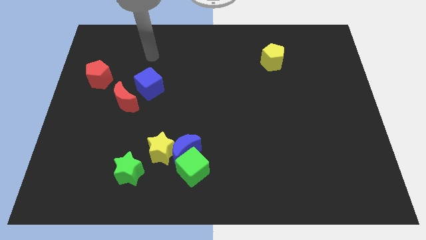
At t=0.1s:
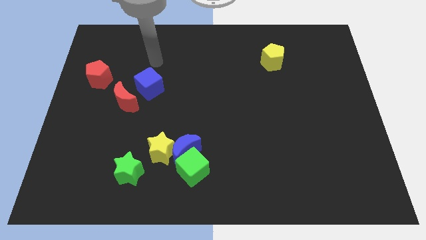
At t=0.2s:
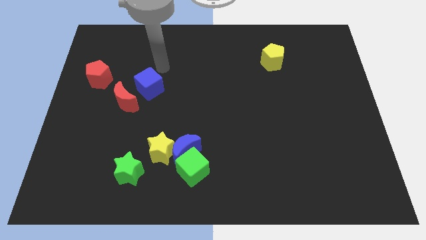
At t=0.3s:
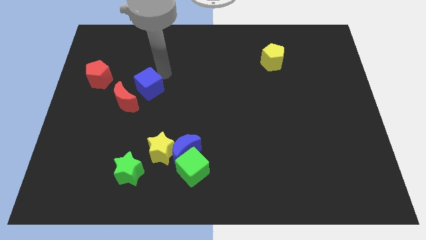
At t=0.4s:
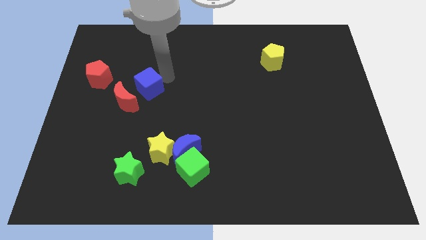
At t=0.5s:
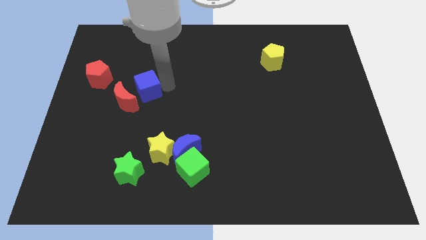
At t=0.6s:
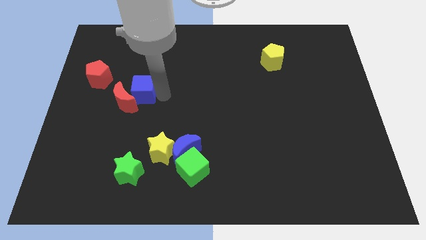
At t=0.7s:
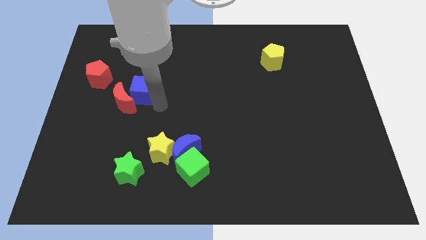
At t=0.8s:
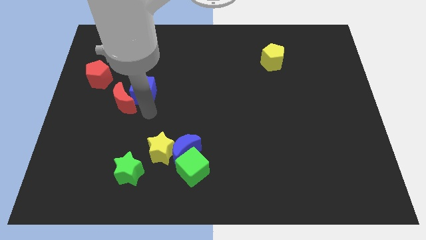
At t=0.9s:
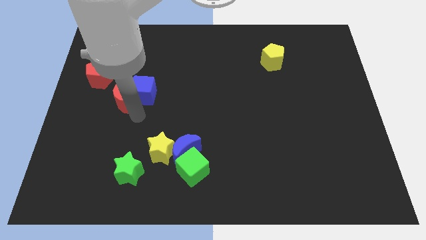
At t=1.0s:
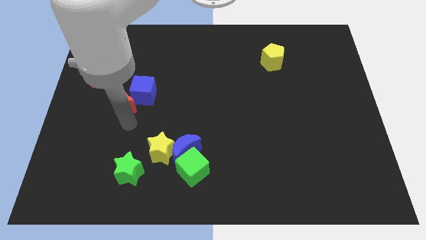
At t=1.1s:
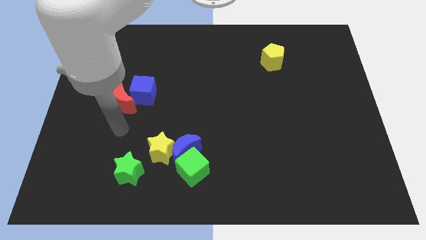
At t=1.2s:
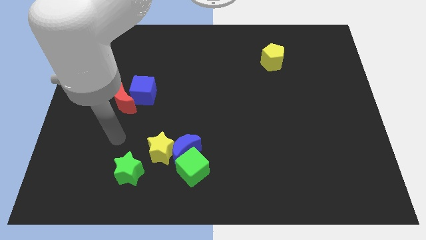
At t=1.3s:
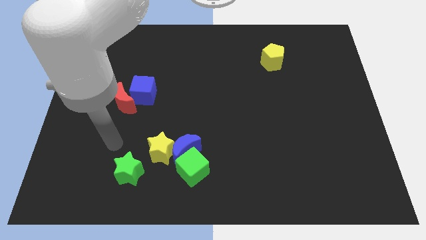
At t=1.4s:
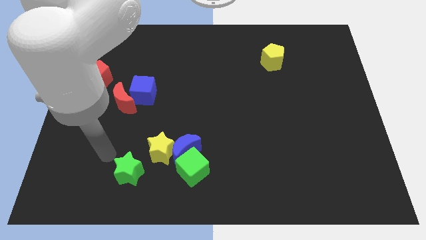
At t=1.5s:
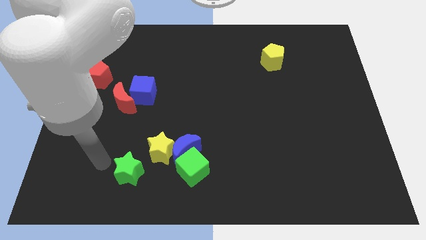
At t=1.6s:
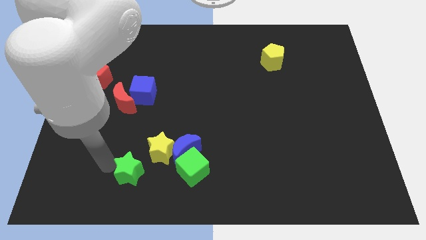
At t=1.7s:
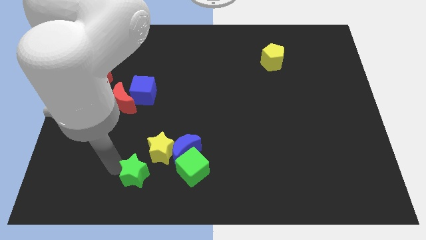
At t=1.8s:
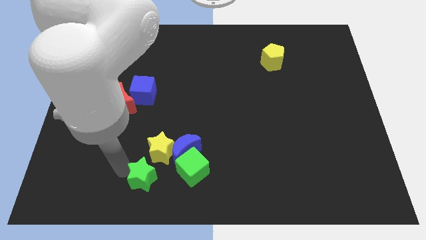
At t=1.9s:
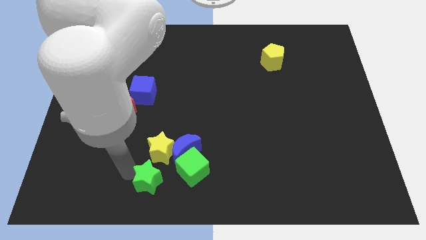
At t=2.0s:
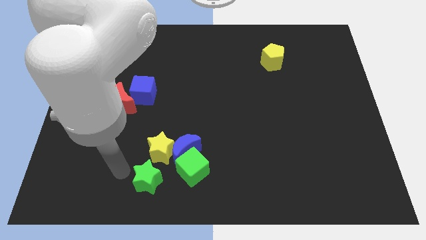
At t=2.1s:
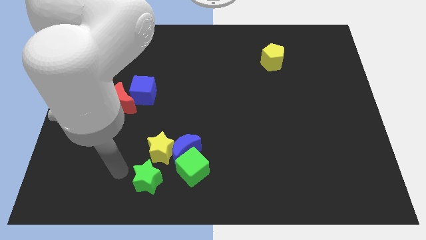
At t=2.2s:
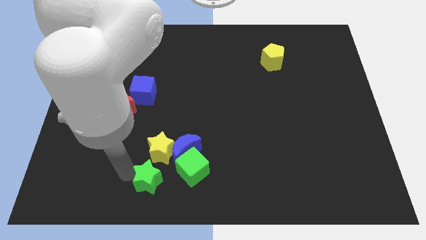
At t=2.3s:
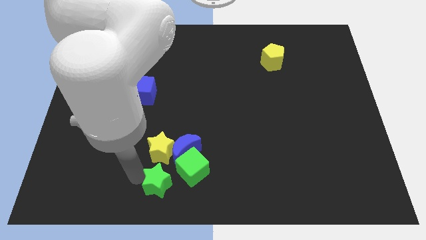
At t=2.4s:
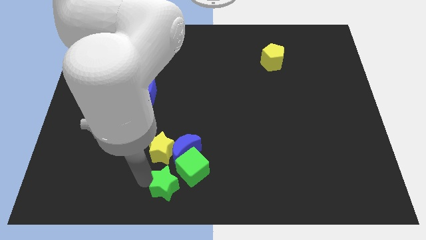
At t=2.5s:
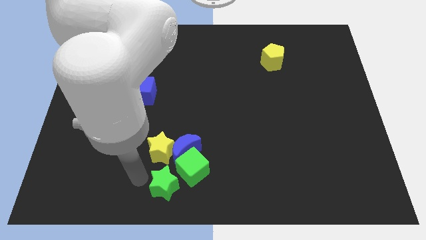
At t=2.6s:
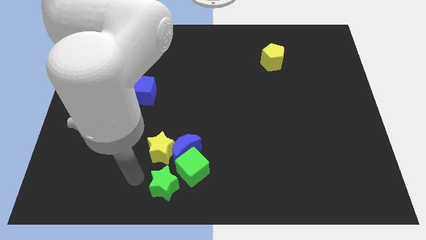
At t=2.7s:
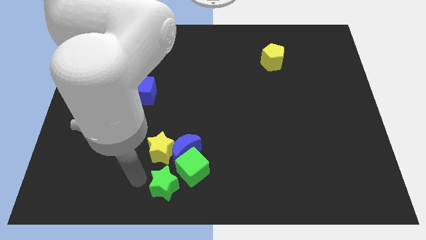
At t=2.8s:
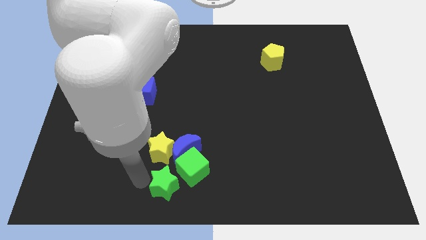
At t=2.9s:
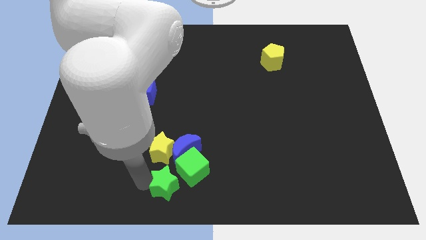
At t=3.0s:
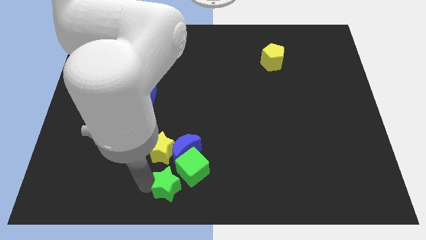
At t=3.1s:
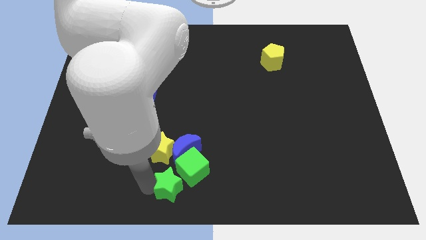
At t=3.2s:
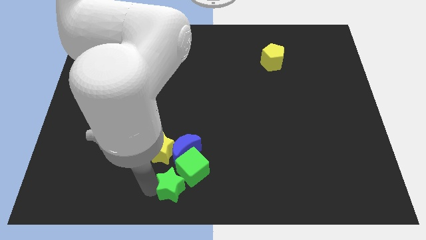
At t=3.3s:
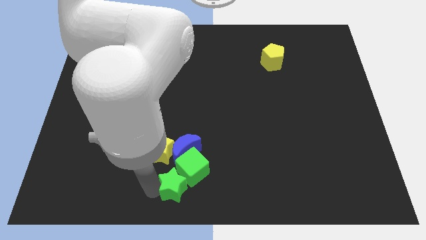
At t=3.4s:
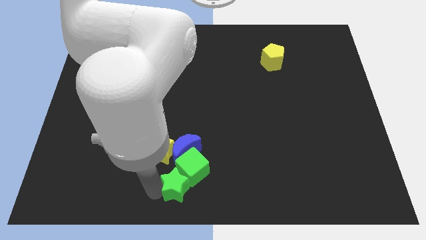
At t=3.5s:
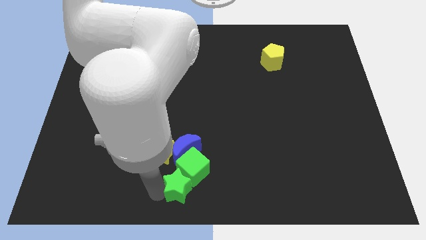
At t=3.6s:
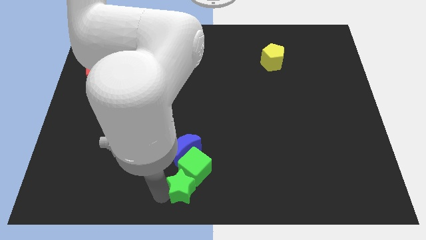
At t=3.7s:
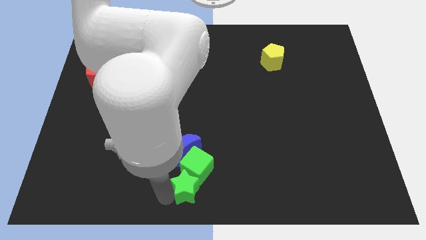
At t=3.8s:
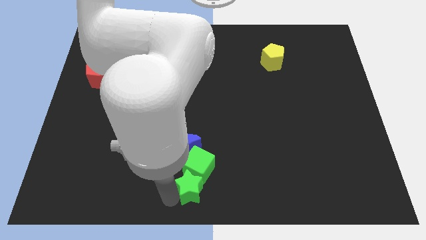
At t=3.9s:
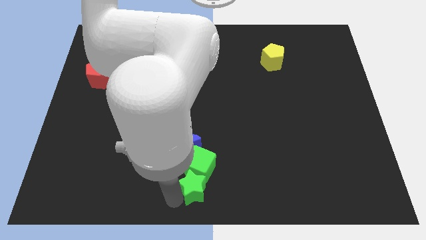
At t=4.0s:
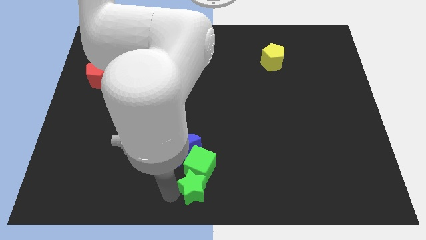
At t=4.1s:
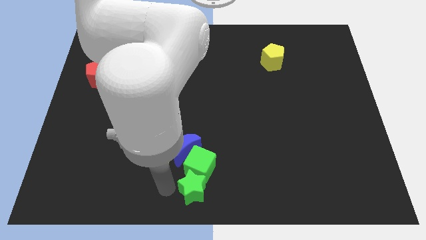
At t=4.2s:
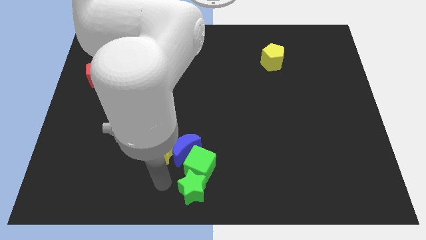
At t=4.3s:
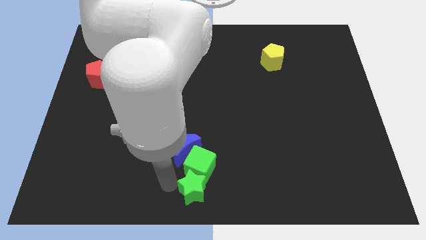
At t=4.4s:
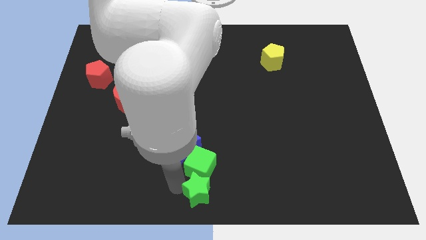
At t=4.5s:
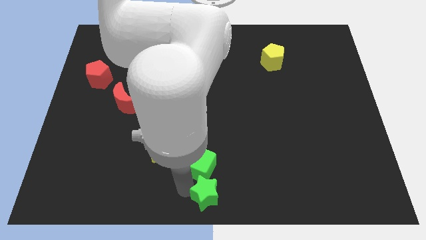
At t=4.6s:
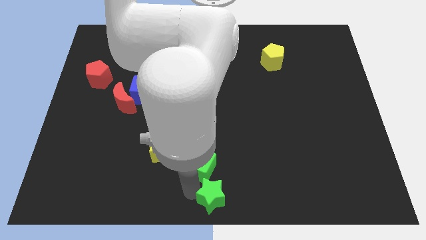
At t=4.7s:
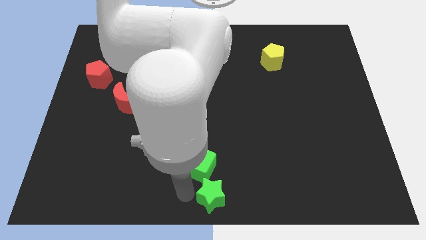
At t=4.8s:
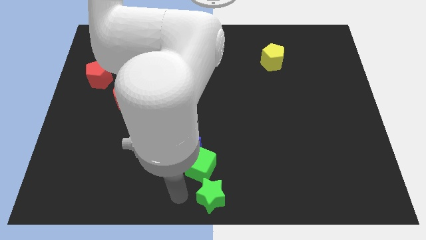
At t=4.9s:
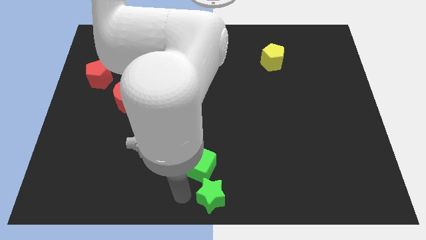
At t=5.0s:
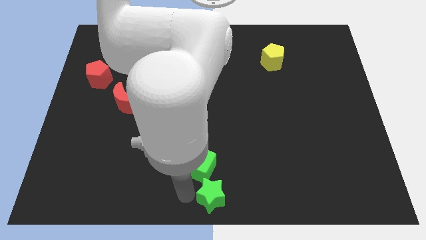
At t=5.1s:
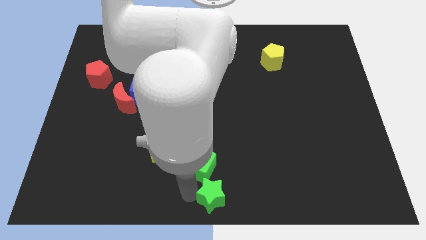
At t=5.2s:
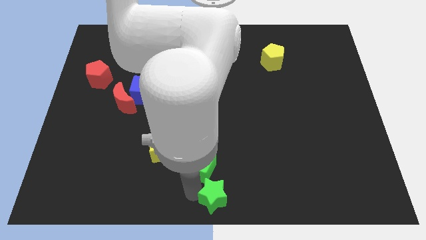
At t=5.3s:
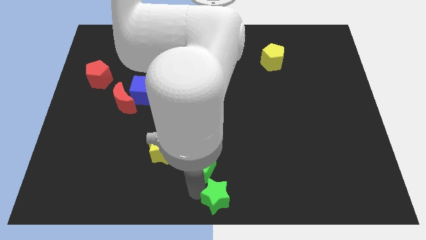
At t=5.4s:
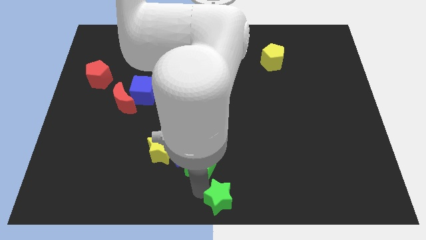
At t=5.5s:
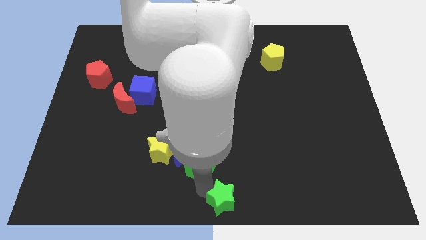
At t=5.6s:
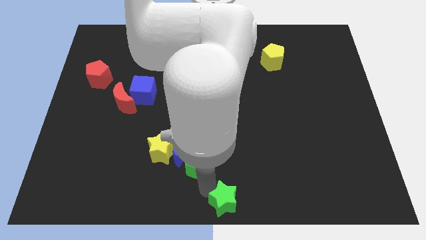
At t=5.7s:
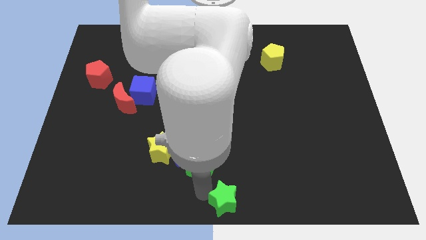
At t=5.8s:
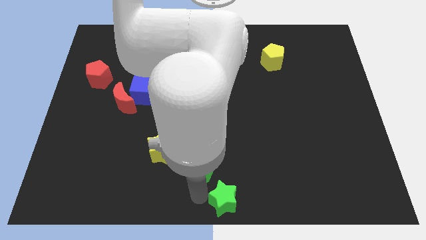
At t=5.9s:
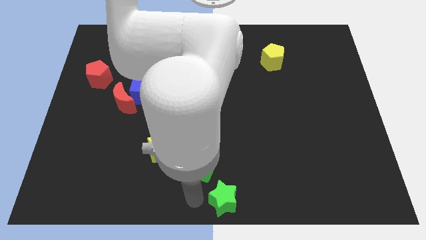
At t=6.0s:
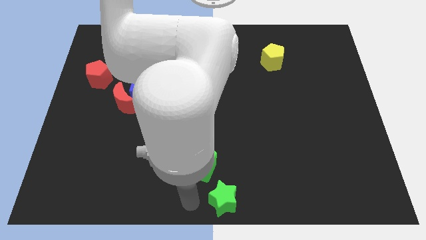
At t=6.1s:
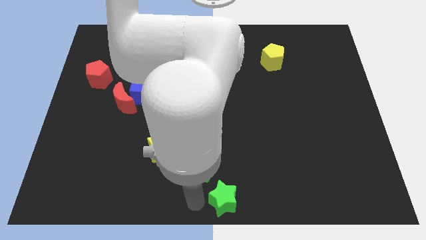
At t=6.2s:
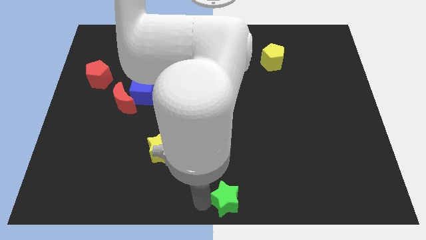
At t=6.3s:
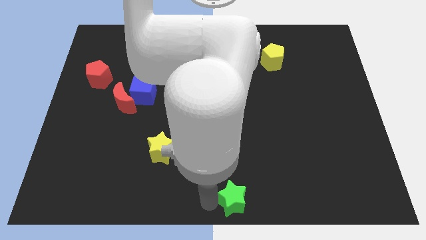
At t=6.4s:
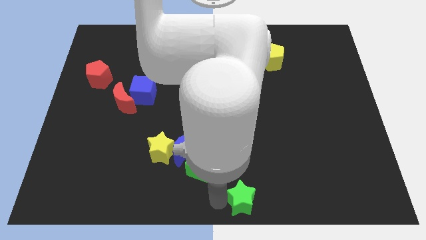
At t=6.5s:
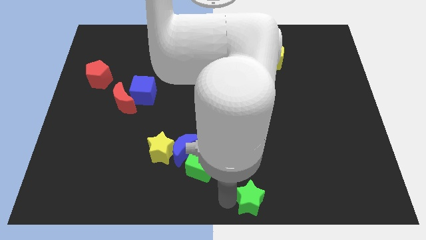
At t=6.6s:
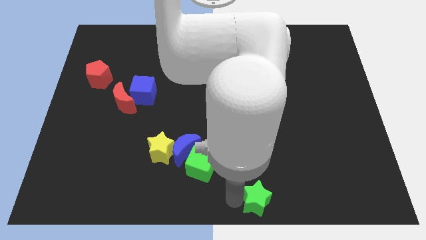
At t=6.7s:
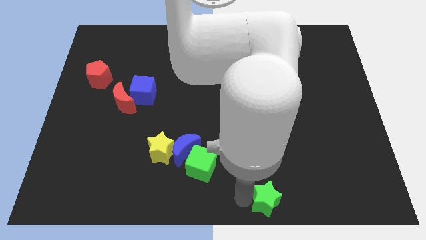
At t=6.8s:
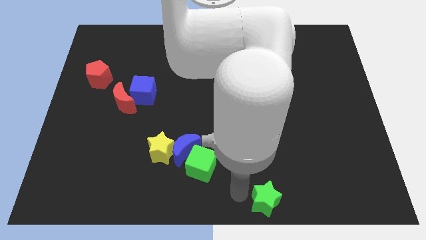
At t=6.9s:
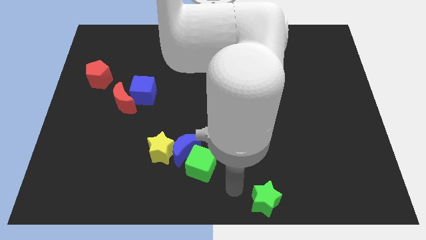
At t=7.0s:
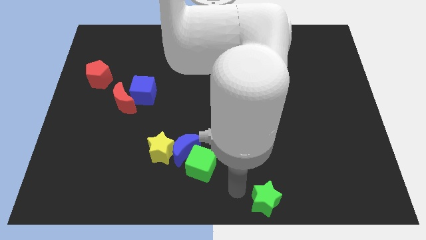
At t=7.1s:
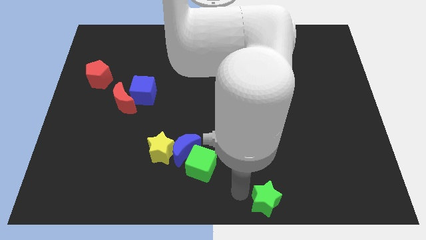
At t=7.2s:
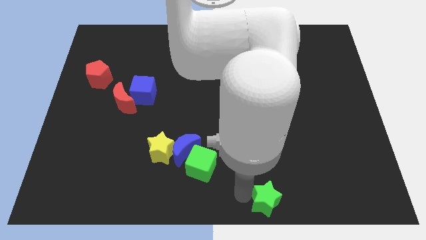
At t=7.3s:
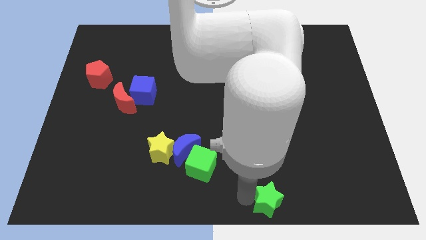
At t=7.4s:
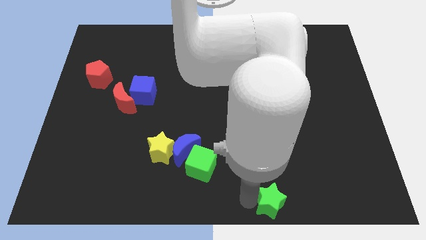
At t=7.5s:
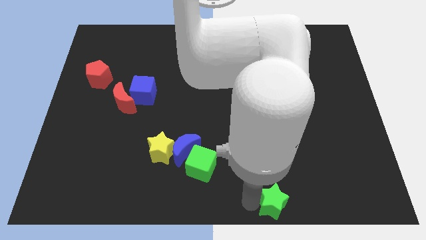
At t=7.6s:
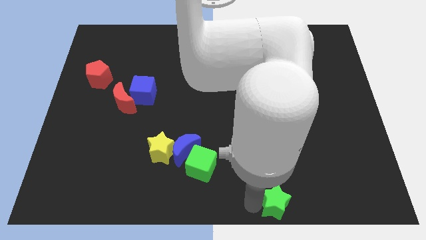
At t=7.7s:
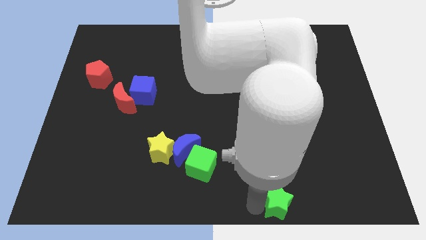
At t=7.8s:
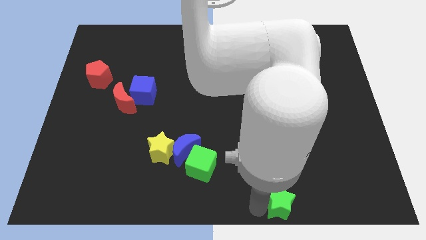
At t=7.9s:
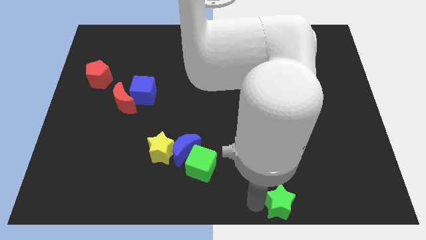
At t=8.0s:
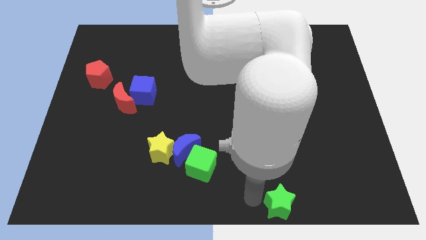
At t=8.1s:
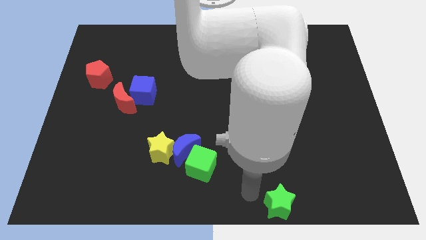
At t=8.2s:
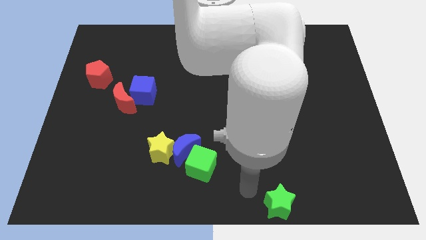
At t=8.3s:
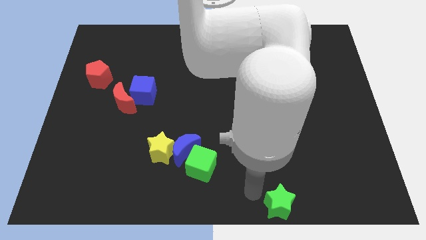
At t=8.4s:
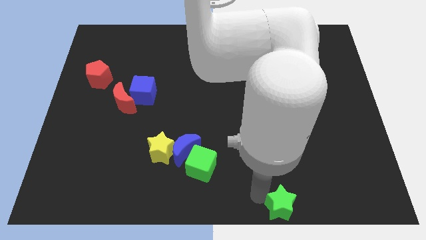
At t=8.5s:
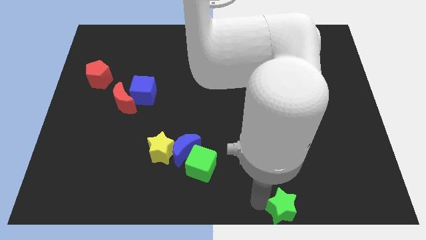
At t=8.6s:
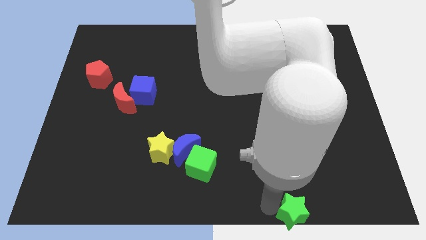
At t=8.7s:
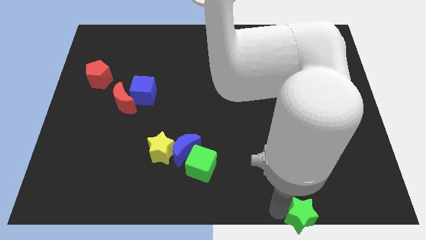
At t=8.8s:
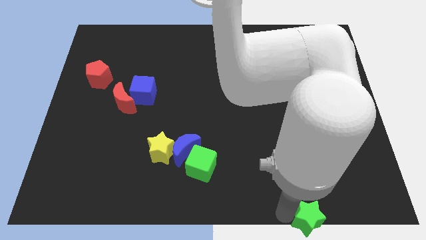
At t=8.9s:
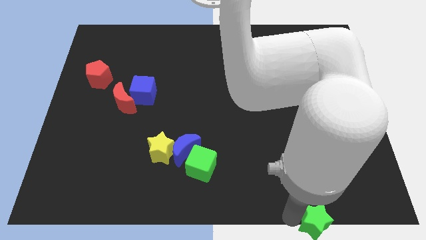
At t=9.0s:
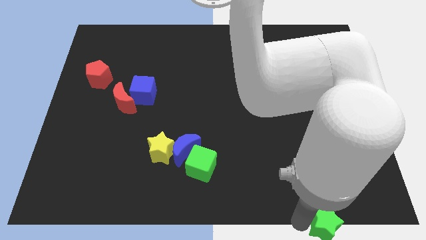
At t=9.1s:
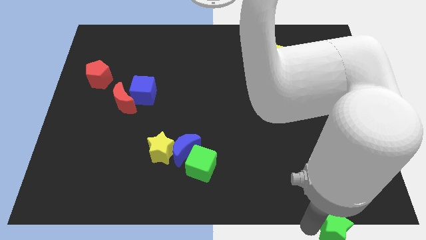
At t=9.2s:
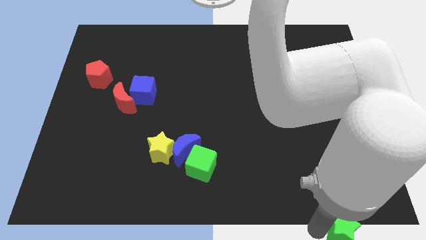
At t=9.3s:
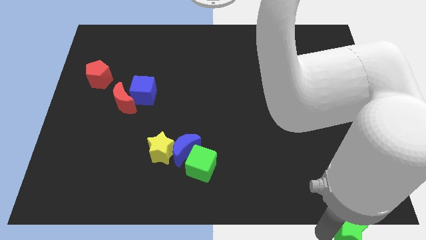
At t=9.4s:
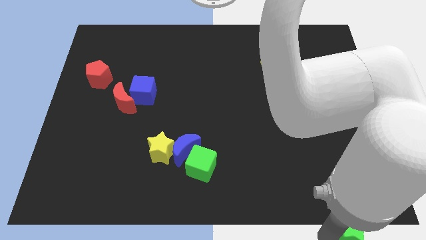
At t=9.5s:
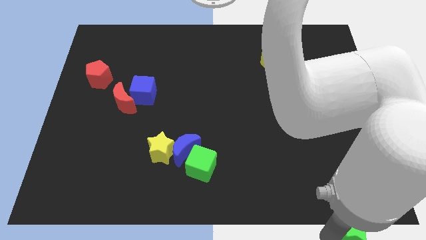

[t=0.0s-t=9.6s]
slide the green star to the bottom right
